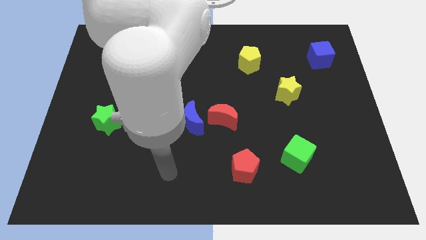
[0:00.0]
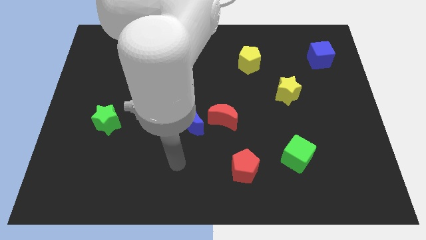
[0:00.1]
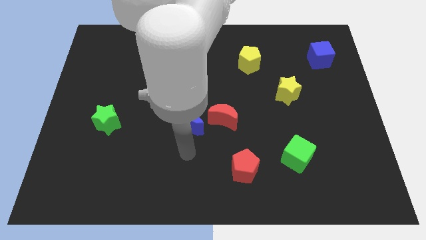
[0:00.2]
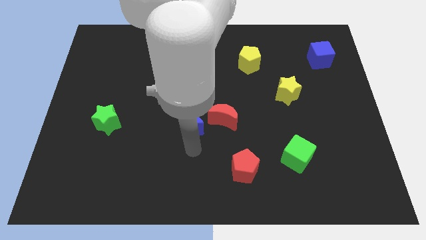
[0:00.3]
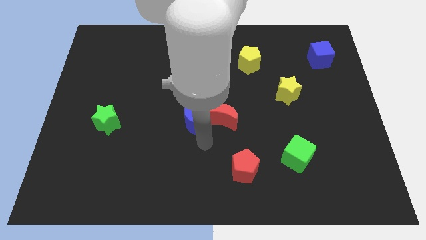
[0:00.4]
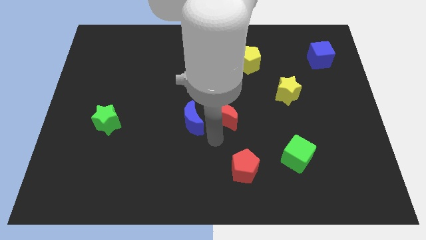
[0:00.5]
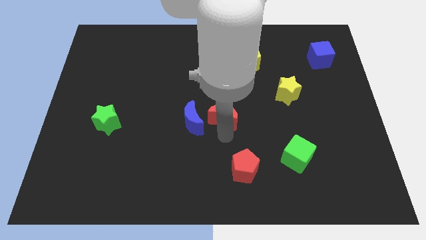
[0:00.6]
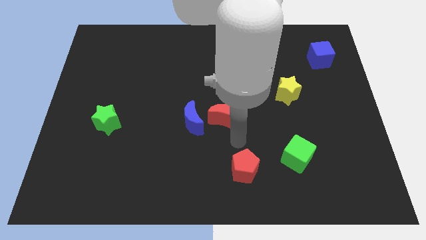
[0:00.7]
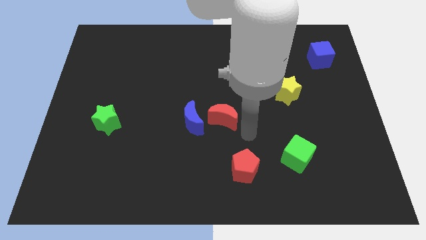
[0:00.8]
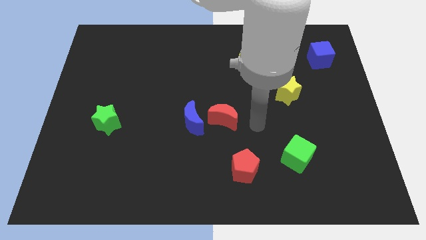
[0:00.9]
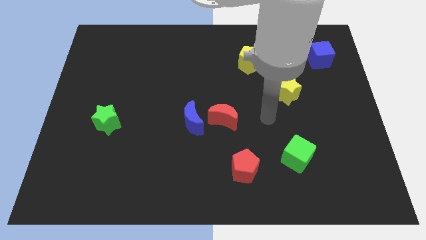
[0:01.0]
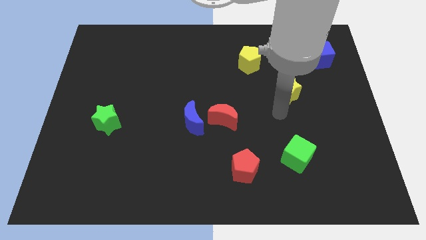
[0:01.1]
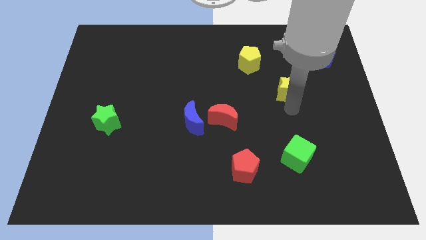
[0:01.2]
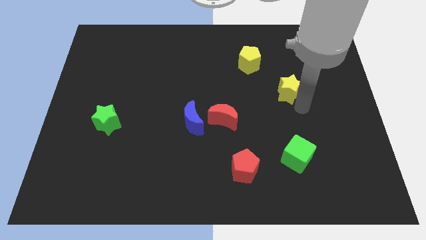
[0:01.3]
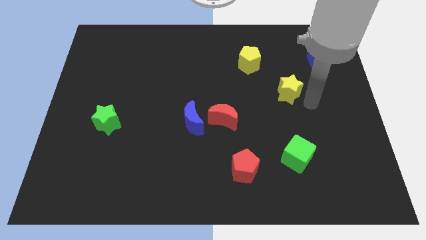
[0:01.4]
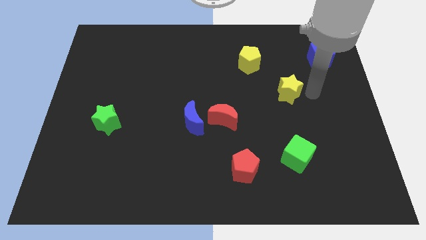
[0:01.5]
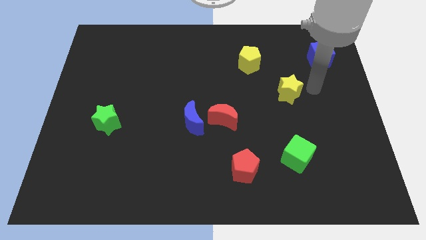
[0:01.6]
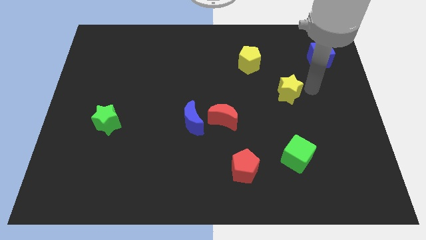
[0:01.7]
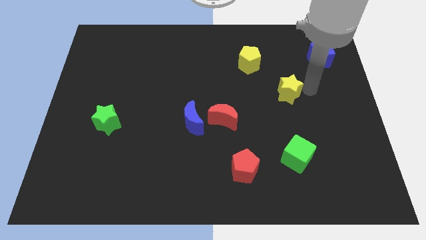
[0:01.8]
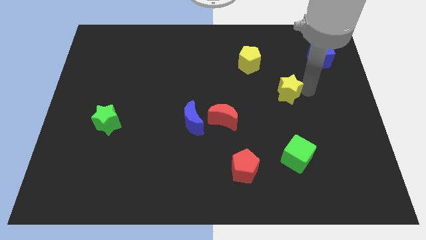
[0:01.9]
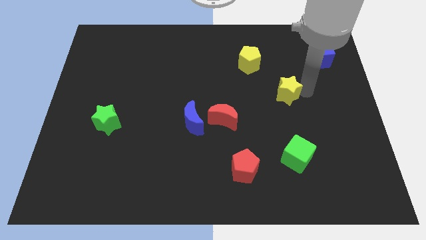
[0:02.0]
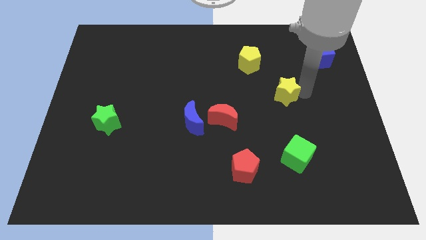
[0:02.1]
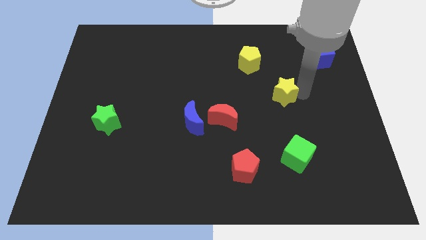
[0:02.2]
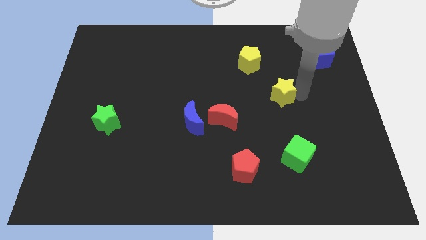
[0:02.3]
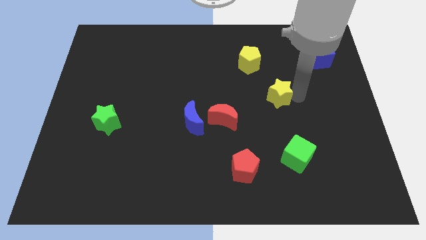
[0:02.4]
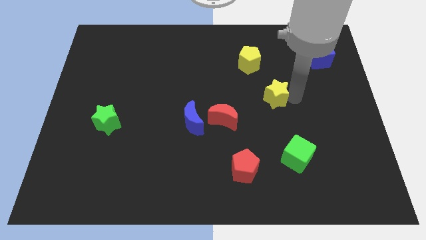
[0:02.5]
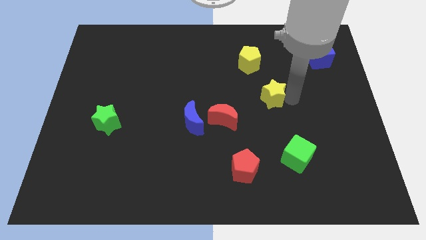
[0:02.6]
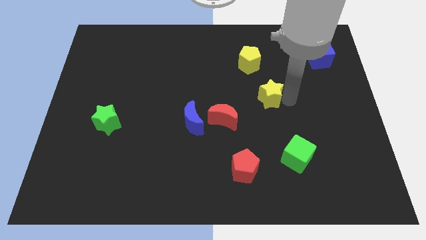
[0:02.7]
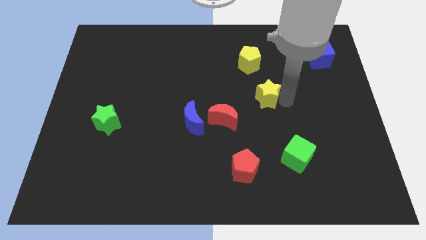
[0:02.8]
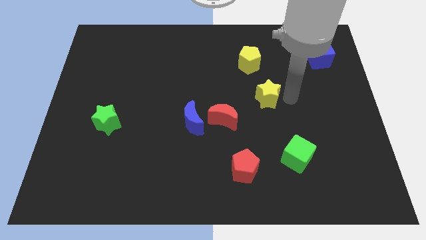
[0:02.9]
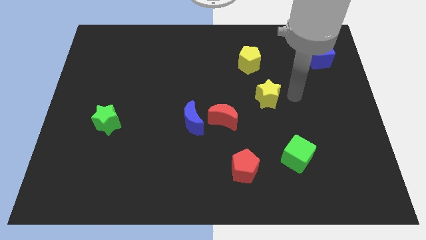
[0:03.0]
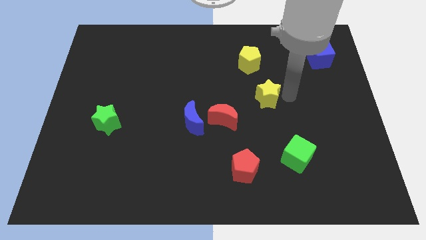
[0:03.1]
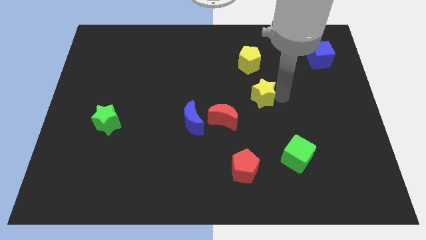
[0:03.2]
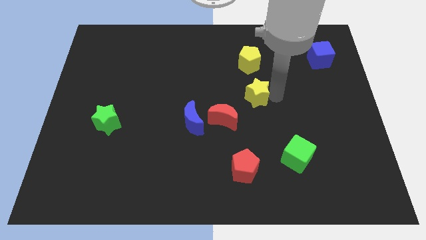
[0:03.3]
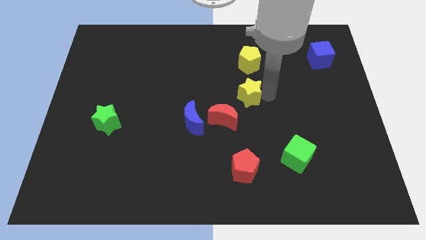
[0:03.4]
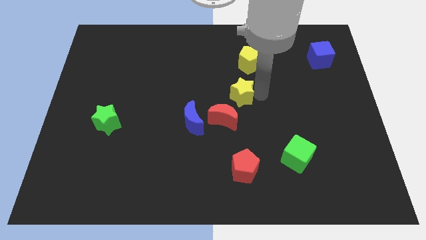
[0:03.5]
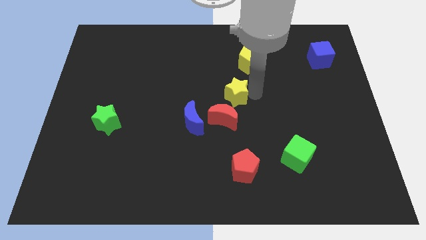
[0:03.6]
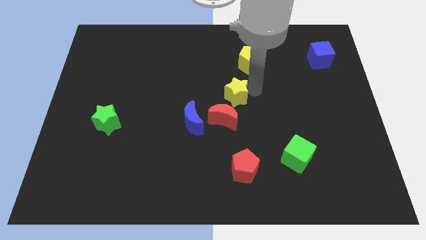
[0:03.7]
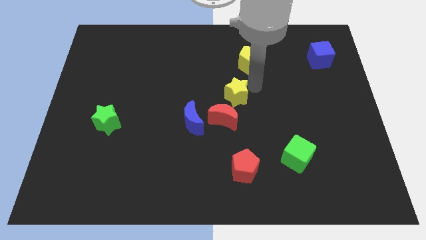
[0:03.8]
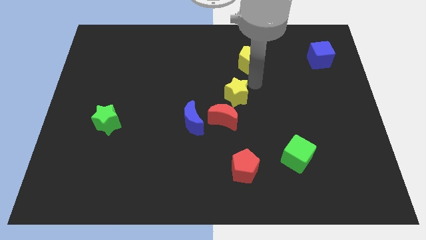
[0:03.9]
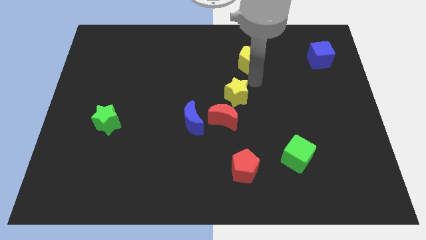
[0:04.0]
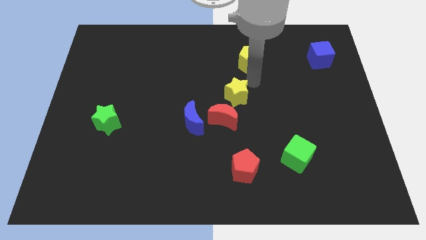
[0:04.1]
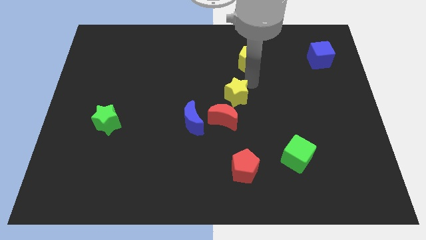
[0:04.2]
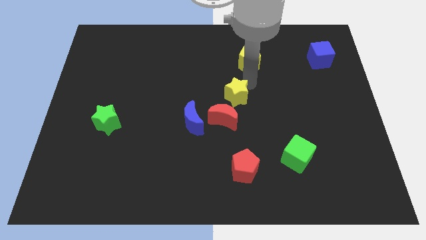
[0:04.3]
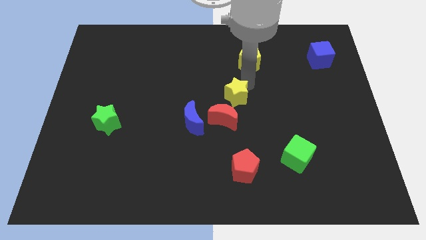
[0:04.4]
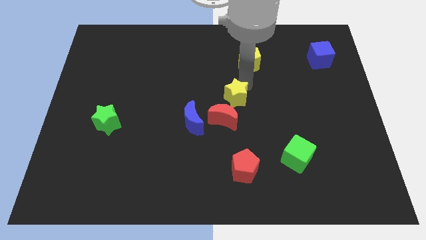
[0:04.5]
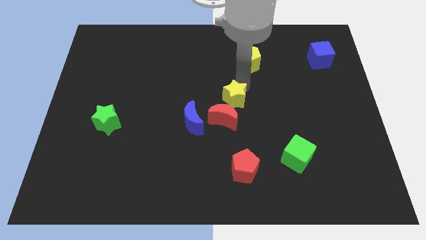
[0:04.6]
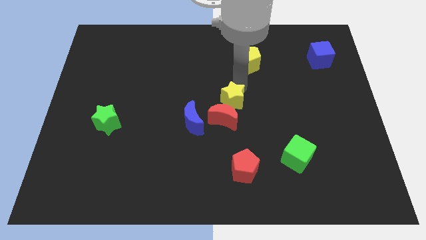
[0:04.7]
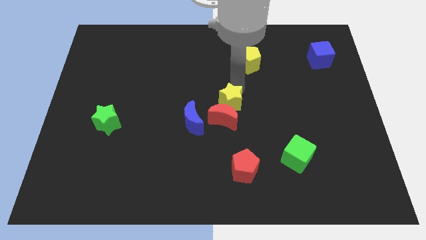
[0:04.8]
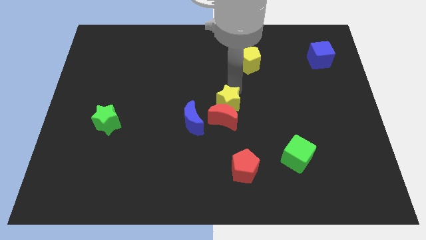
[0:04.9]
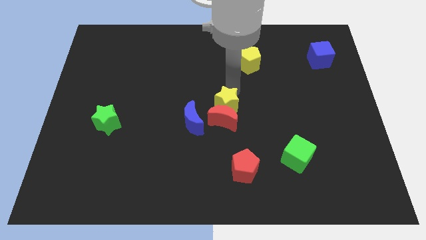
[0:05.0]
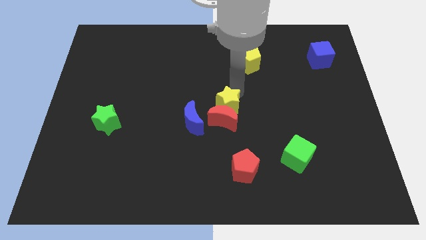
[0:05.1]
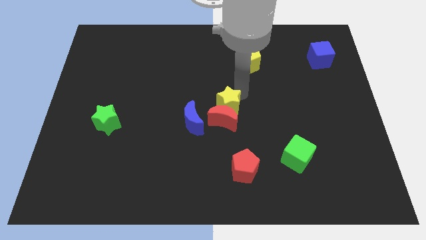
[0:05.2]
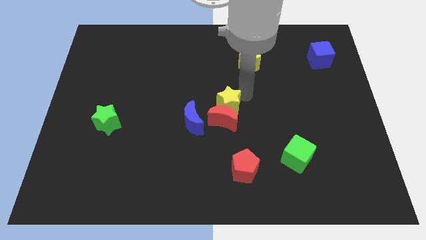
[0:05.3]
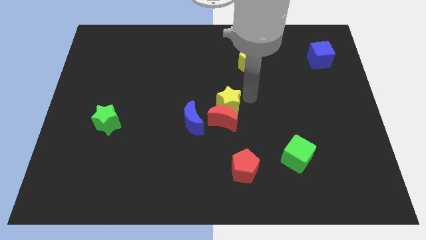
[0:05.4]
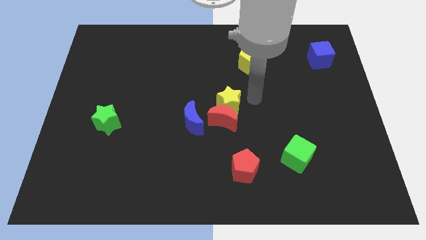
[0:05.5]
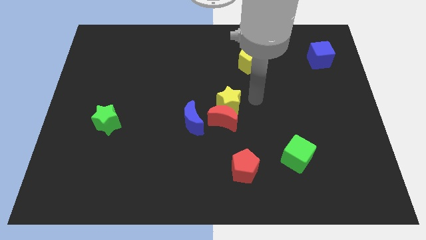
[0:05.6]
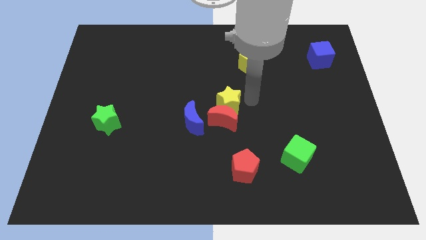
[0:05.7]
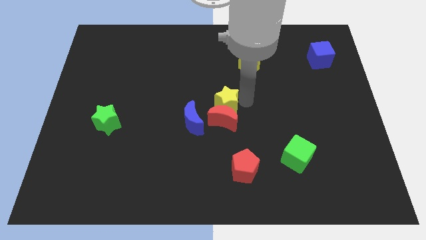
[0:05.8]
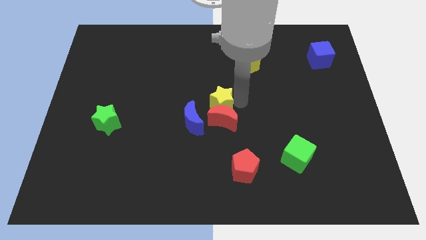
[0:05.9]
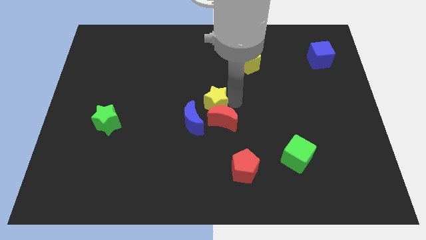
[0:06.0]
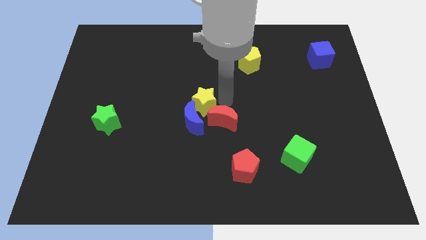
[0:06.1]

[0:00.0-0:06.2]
slide the yellow star to the blue moon

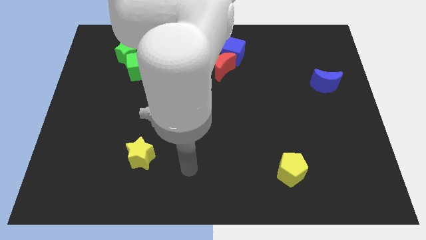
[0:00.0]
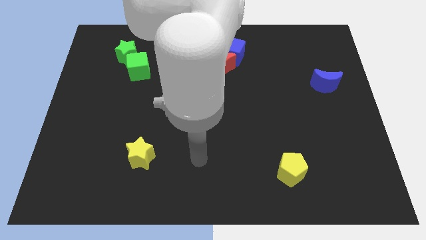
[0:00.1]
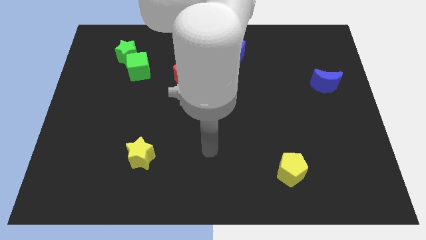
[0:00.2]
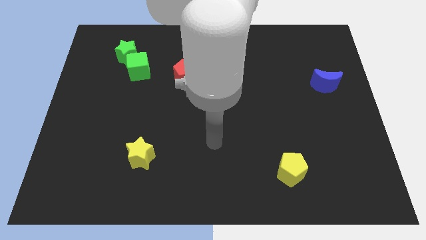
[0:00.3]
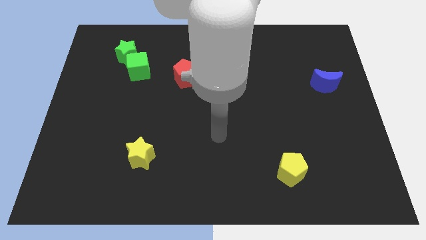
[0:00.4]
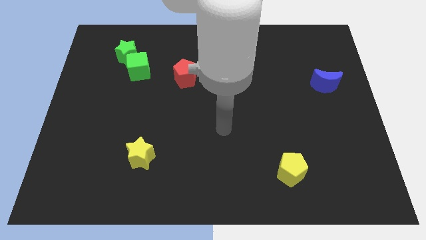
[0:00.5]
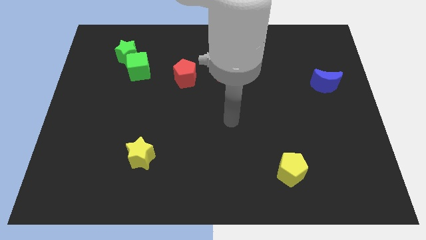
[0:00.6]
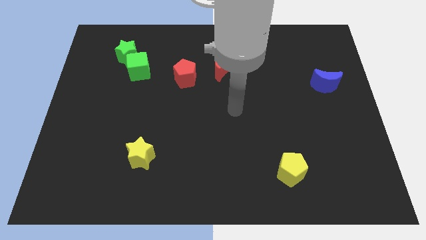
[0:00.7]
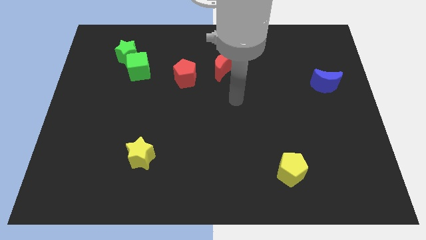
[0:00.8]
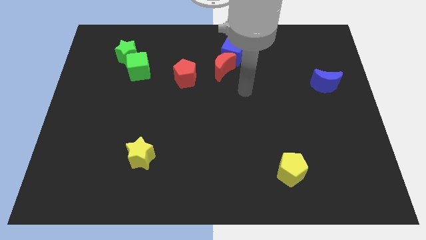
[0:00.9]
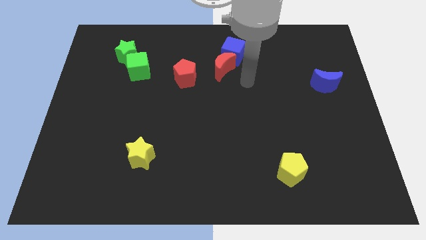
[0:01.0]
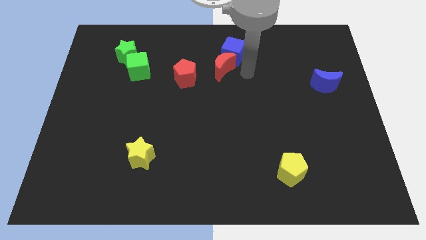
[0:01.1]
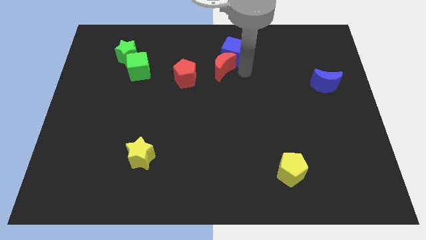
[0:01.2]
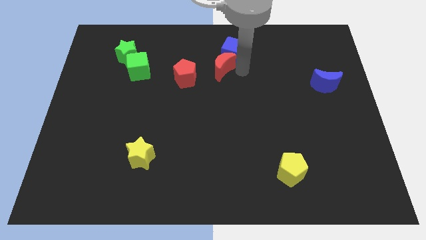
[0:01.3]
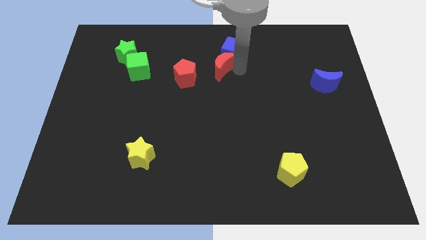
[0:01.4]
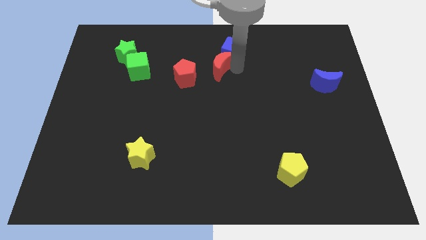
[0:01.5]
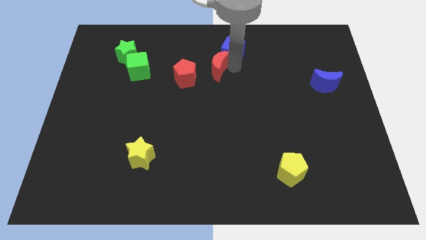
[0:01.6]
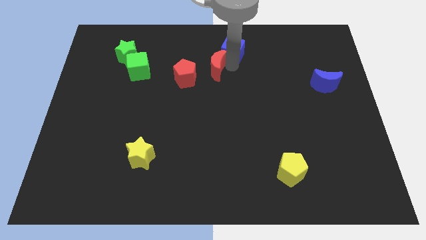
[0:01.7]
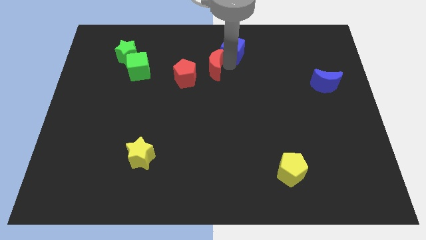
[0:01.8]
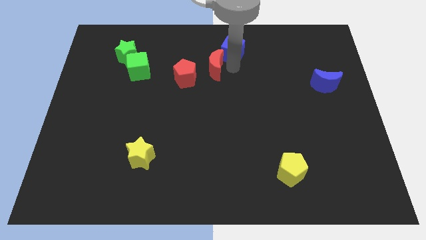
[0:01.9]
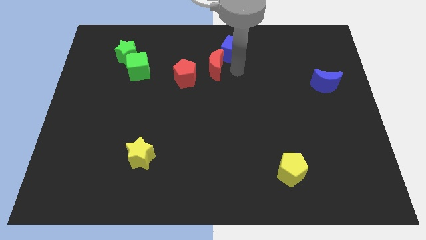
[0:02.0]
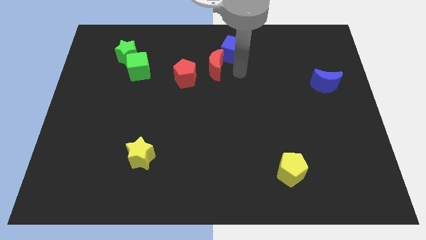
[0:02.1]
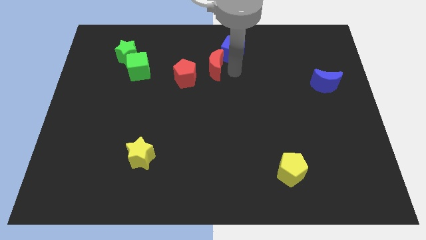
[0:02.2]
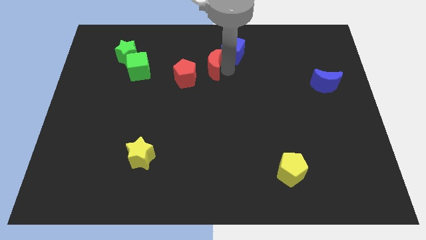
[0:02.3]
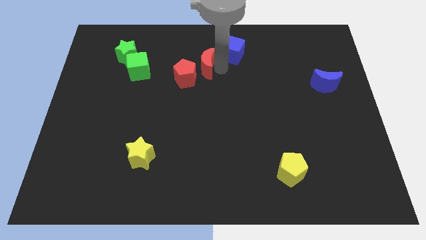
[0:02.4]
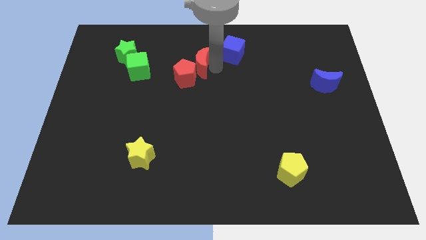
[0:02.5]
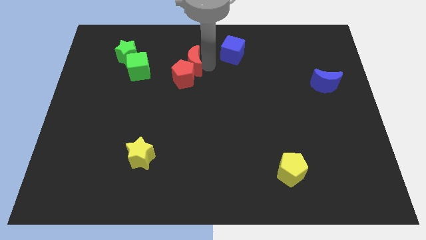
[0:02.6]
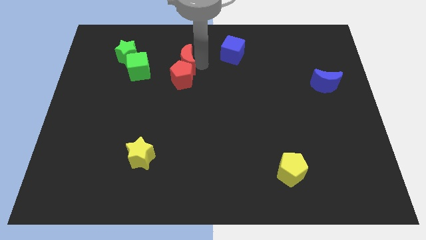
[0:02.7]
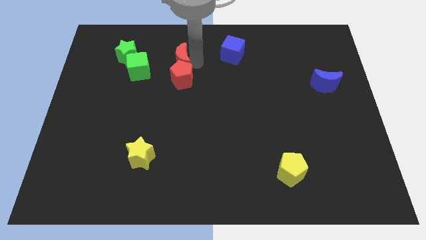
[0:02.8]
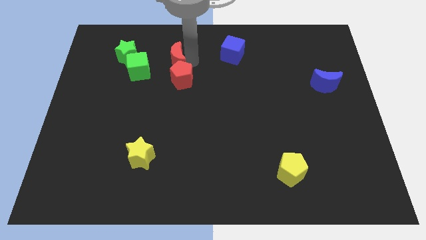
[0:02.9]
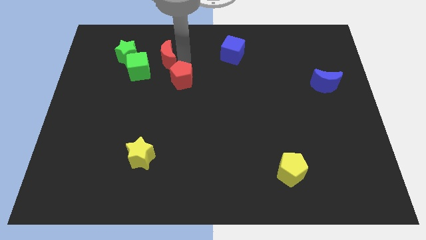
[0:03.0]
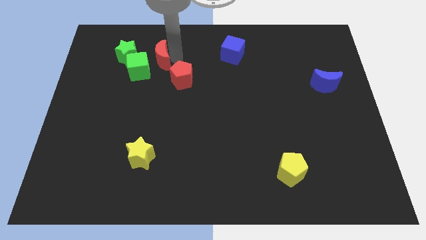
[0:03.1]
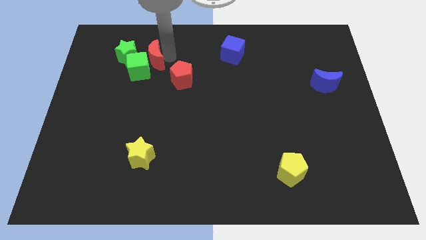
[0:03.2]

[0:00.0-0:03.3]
move the red moon towards the green cube
